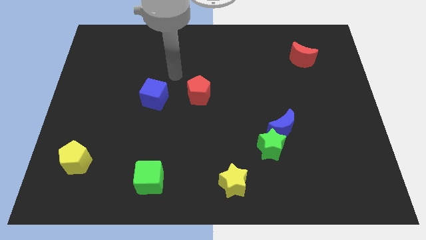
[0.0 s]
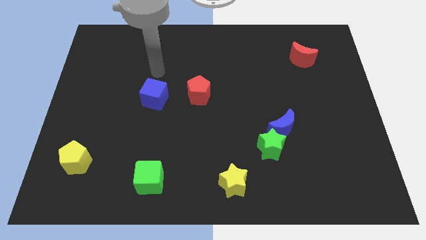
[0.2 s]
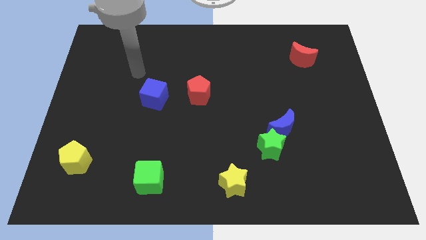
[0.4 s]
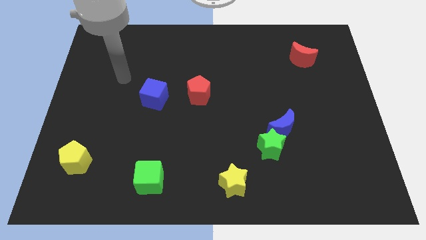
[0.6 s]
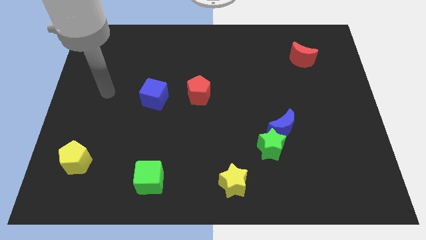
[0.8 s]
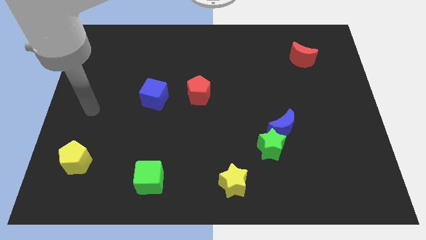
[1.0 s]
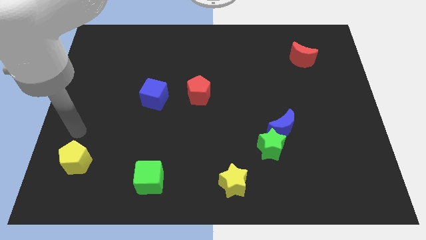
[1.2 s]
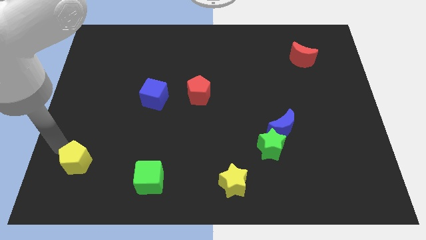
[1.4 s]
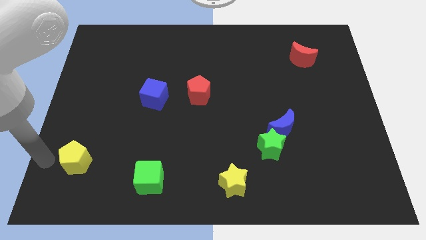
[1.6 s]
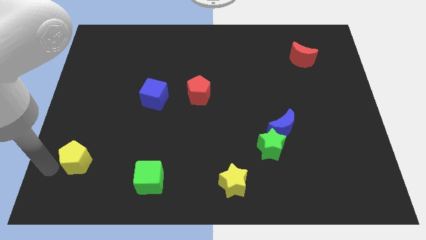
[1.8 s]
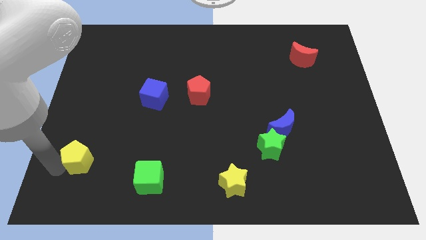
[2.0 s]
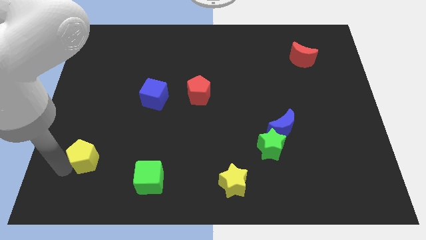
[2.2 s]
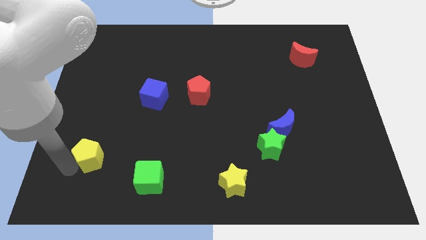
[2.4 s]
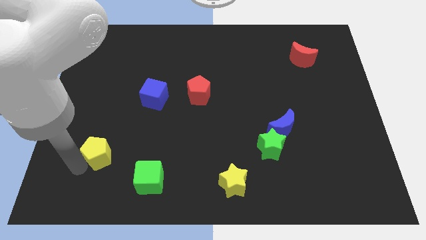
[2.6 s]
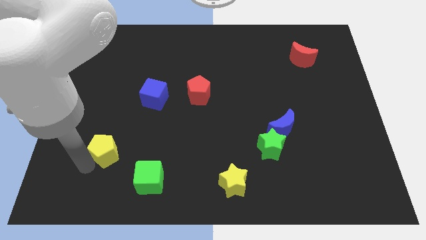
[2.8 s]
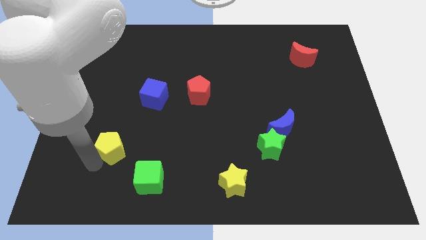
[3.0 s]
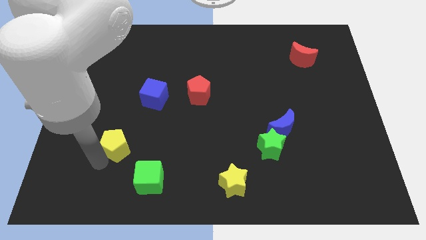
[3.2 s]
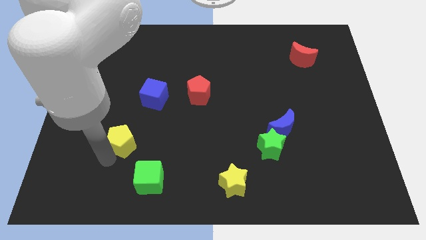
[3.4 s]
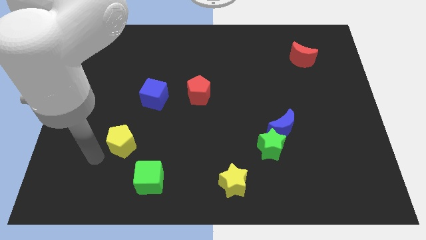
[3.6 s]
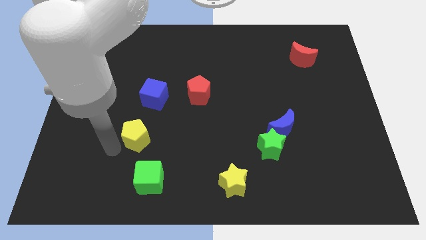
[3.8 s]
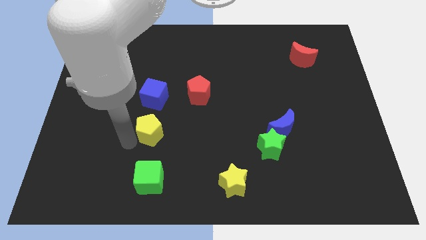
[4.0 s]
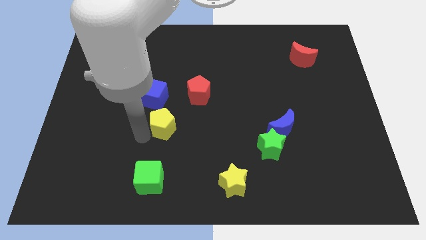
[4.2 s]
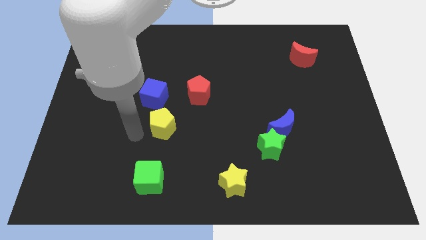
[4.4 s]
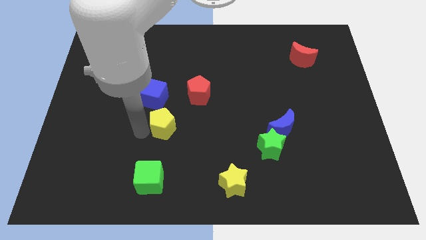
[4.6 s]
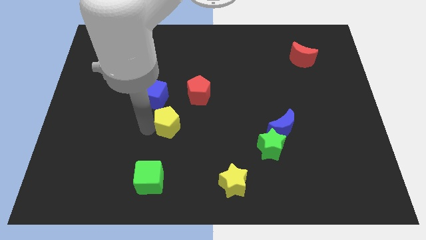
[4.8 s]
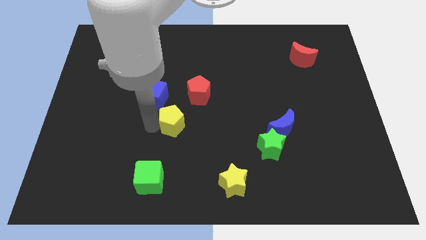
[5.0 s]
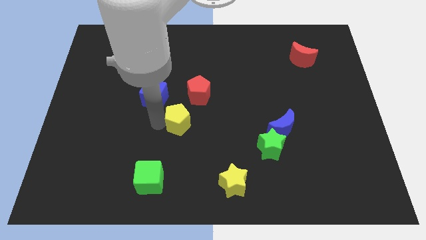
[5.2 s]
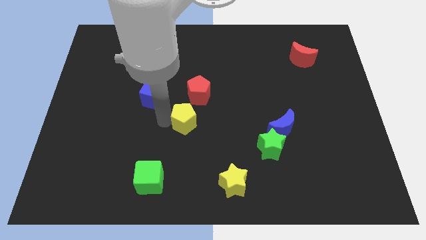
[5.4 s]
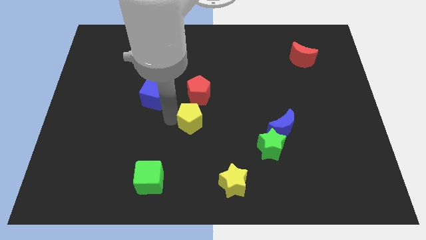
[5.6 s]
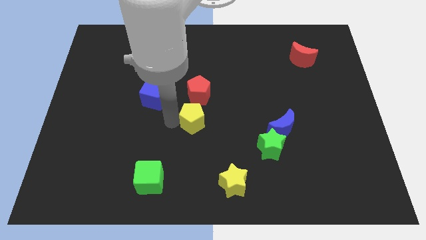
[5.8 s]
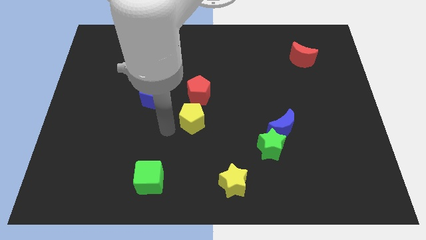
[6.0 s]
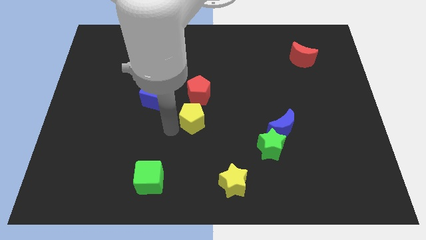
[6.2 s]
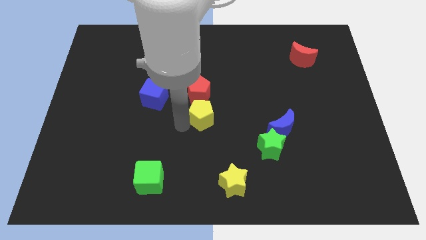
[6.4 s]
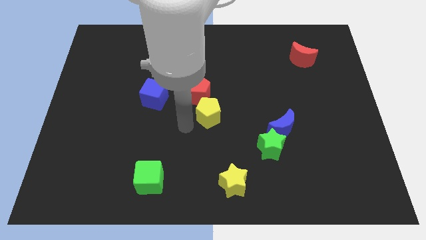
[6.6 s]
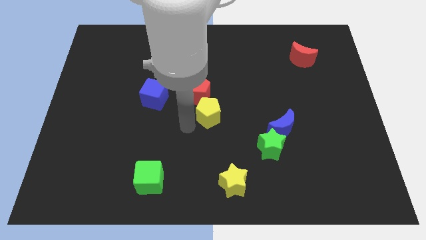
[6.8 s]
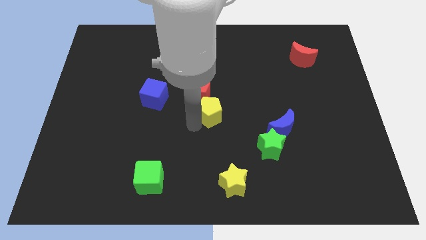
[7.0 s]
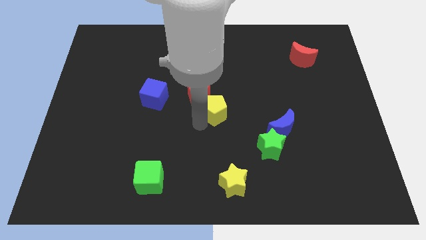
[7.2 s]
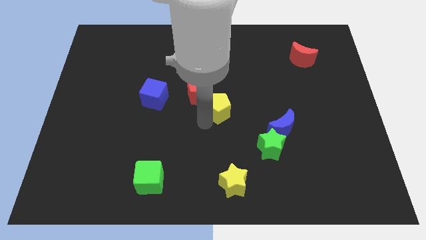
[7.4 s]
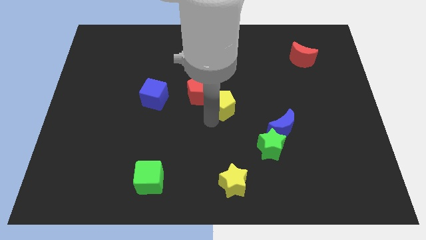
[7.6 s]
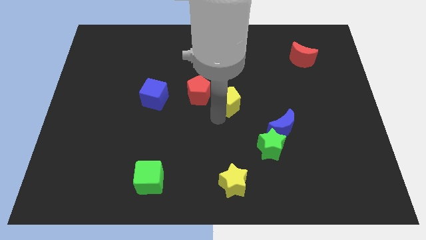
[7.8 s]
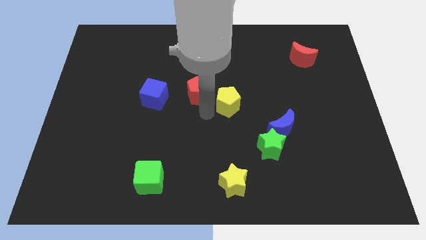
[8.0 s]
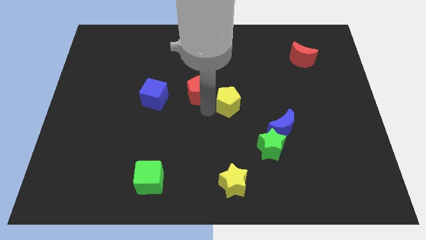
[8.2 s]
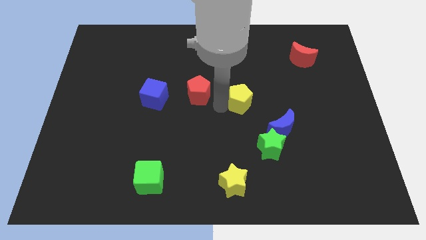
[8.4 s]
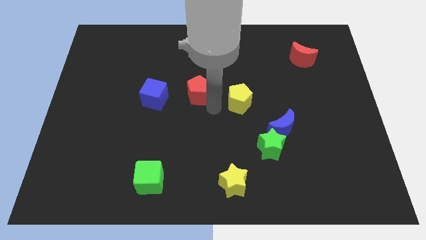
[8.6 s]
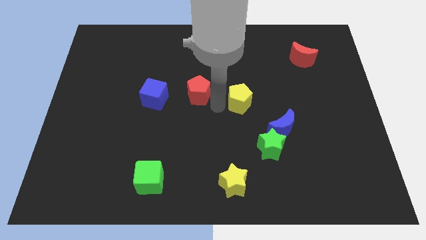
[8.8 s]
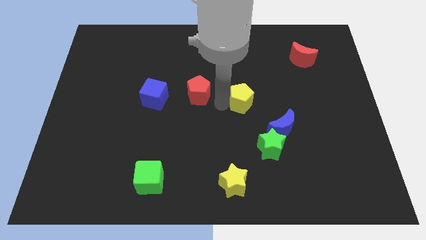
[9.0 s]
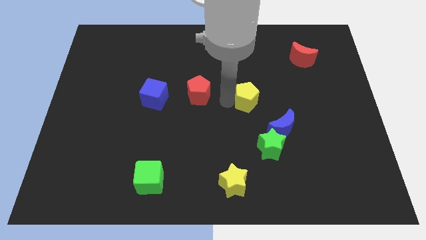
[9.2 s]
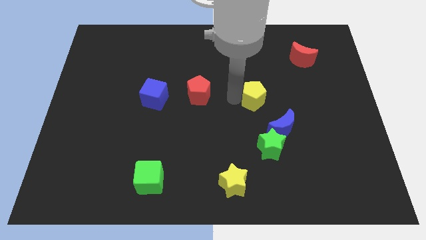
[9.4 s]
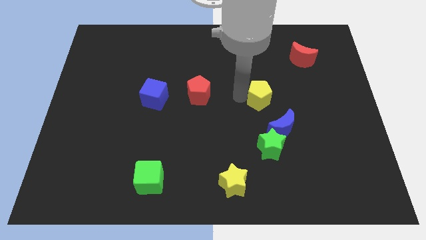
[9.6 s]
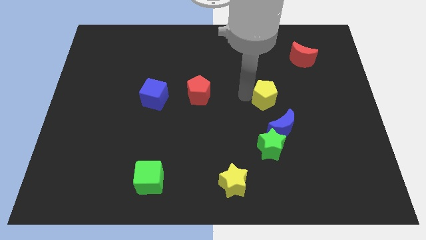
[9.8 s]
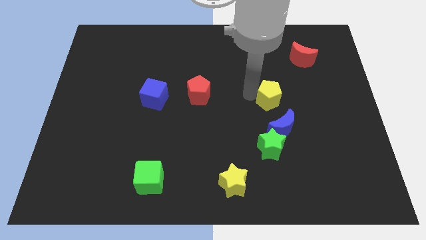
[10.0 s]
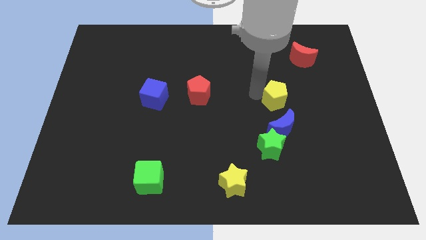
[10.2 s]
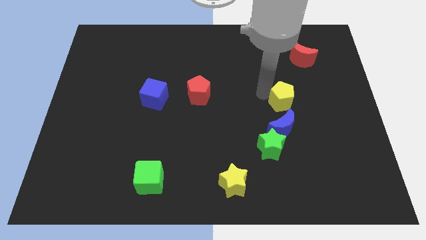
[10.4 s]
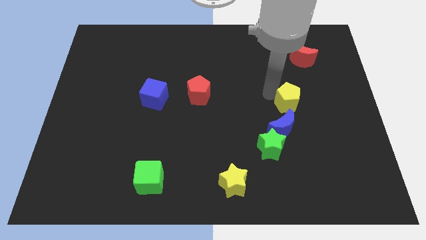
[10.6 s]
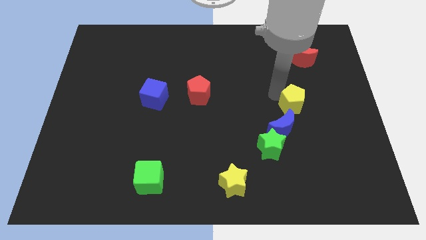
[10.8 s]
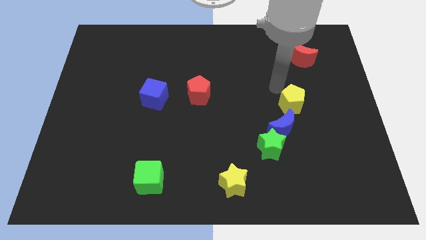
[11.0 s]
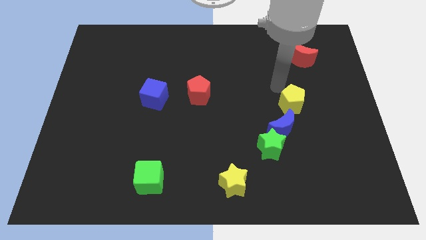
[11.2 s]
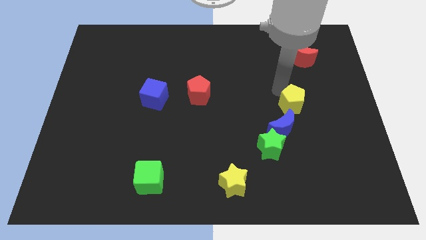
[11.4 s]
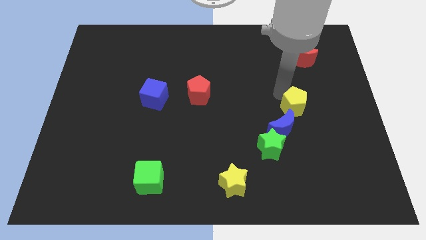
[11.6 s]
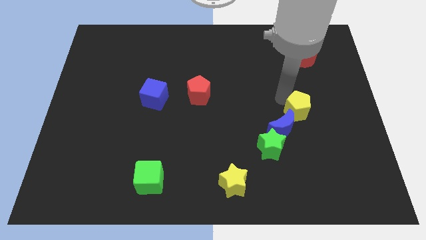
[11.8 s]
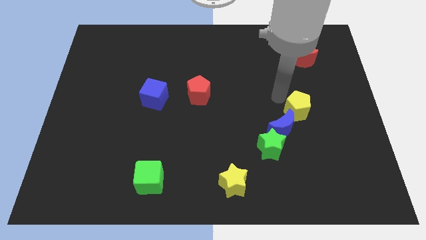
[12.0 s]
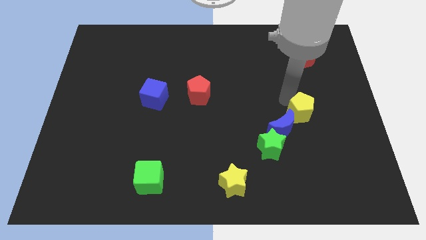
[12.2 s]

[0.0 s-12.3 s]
push the yellow pentagon right of the blue moon

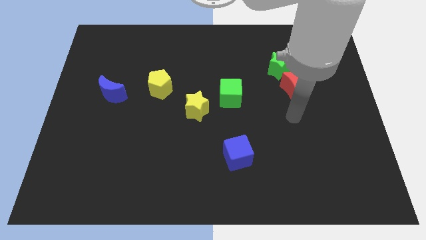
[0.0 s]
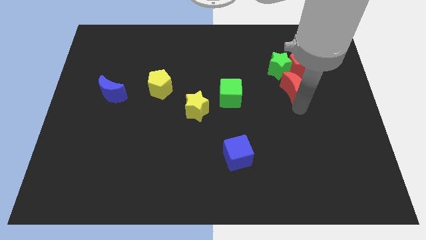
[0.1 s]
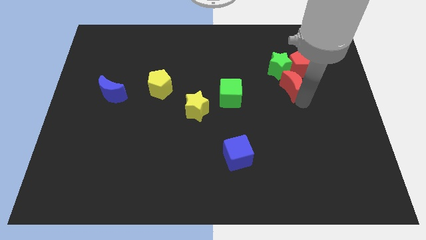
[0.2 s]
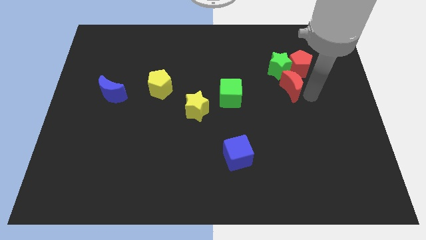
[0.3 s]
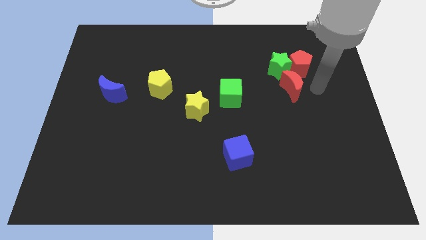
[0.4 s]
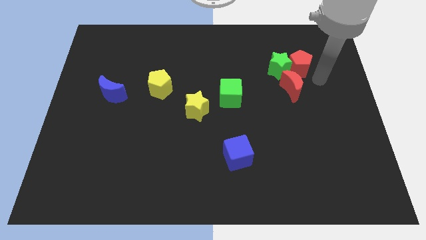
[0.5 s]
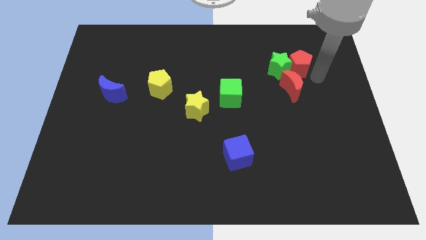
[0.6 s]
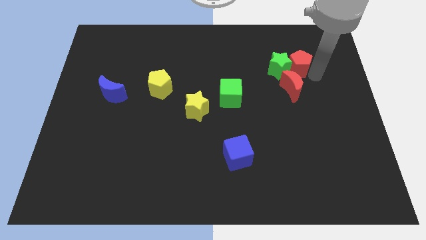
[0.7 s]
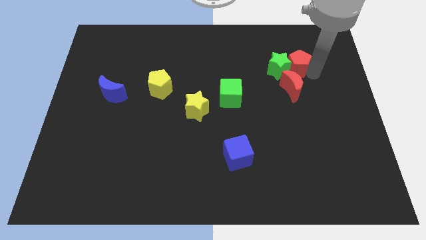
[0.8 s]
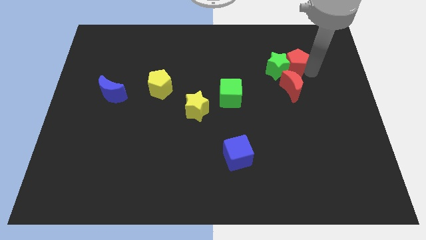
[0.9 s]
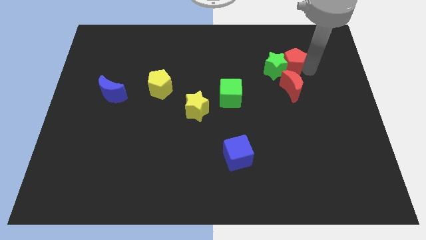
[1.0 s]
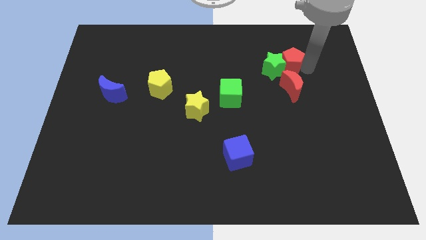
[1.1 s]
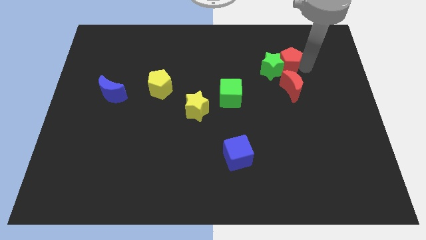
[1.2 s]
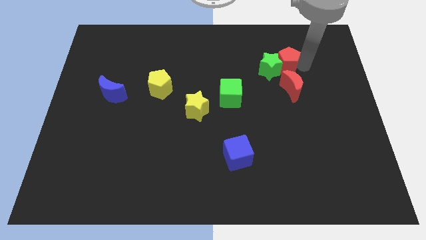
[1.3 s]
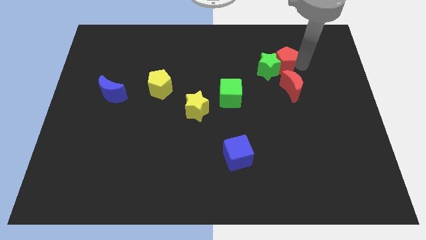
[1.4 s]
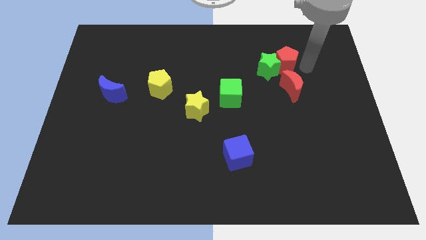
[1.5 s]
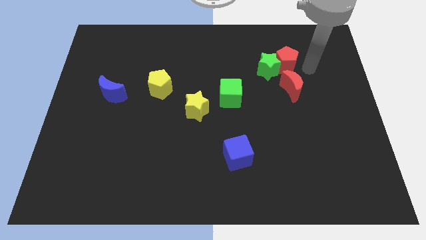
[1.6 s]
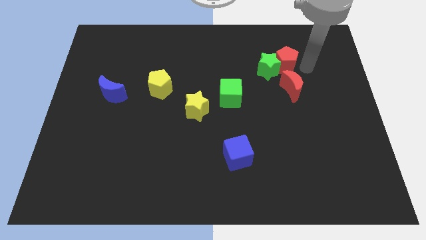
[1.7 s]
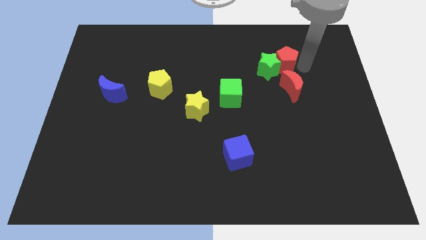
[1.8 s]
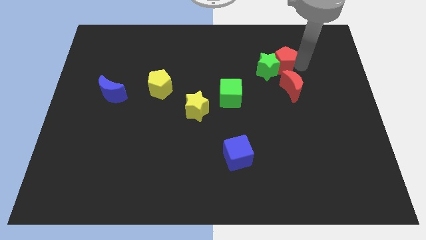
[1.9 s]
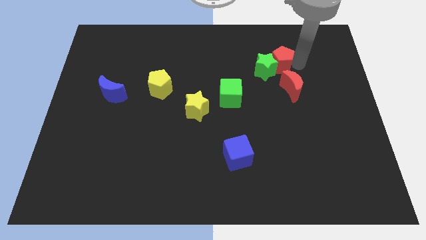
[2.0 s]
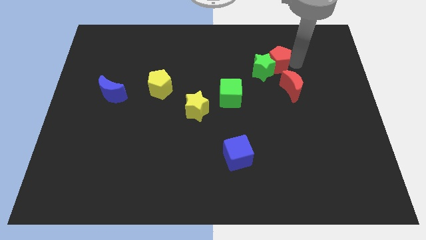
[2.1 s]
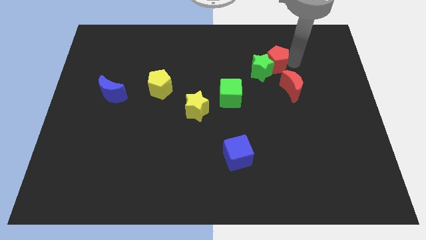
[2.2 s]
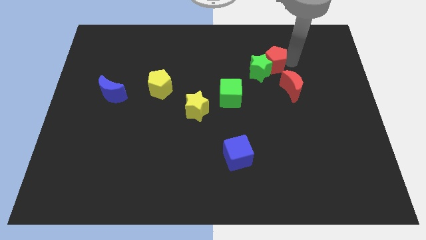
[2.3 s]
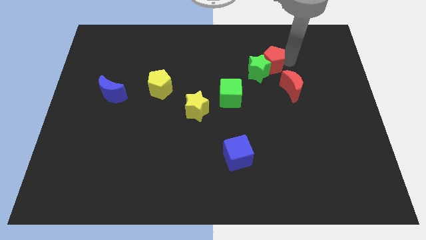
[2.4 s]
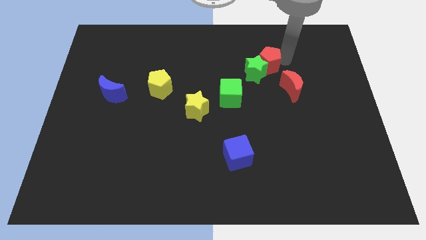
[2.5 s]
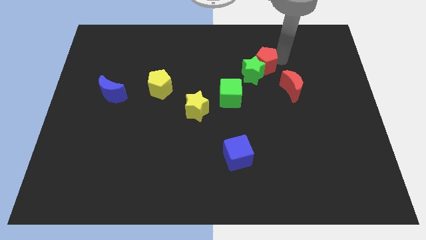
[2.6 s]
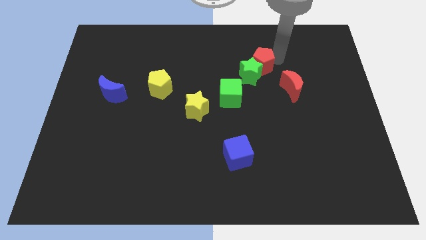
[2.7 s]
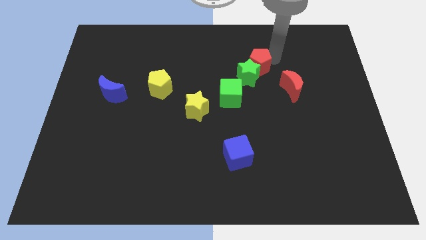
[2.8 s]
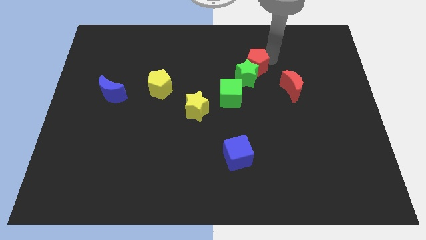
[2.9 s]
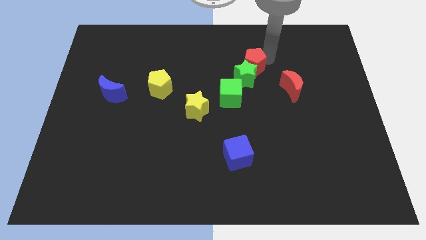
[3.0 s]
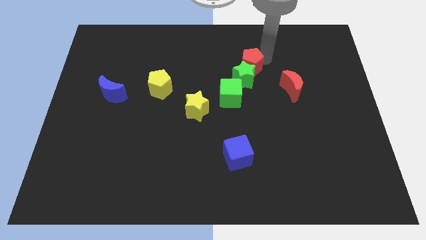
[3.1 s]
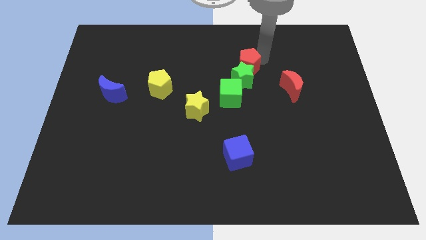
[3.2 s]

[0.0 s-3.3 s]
slide the red pentagon to the top of the green cube
